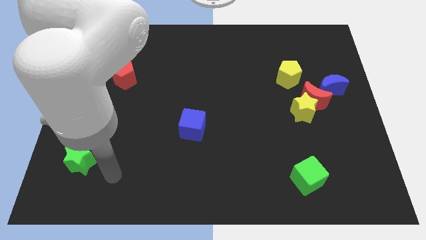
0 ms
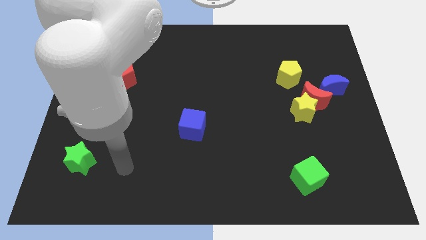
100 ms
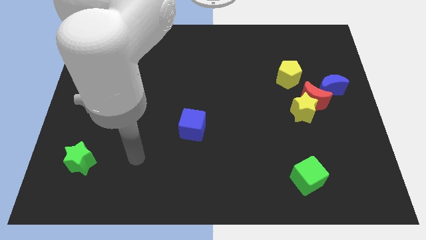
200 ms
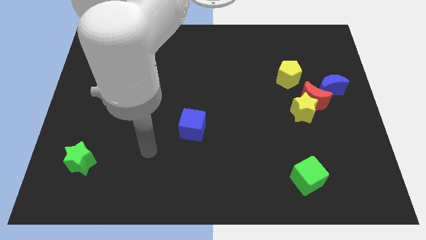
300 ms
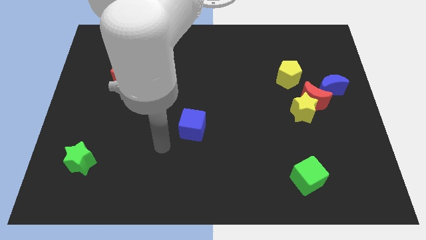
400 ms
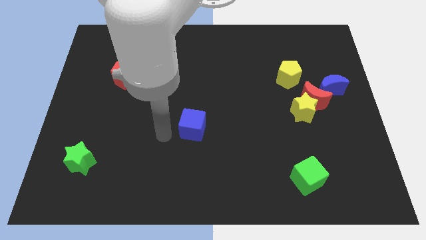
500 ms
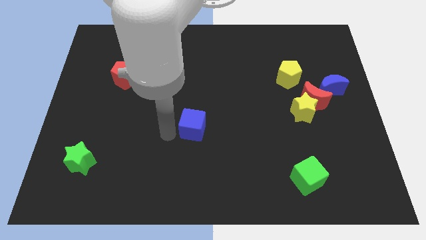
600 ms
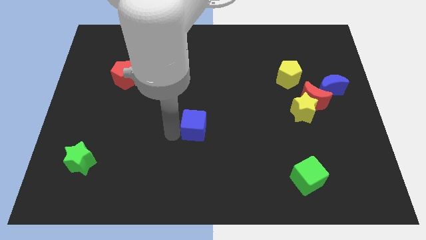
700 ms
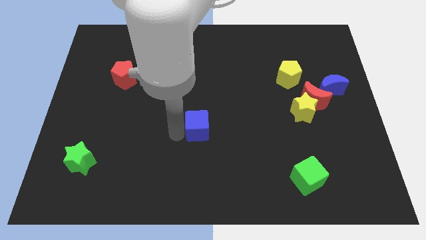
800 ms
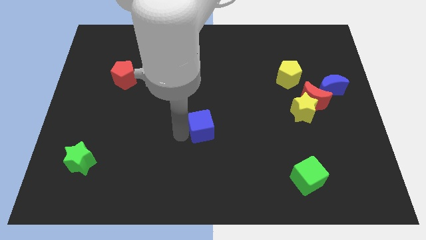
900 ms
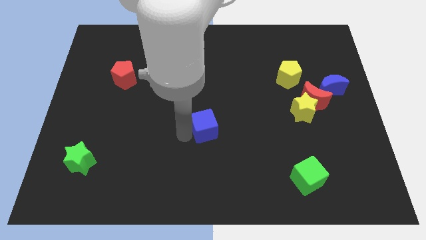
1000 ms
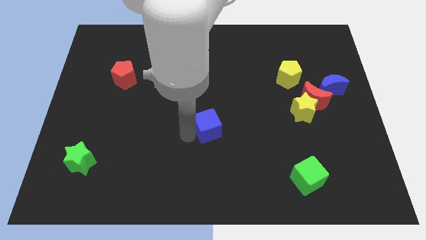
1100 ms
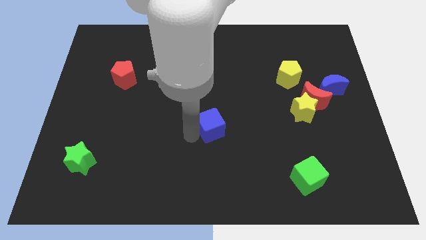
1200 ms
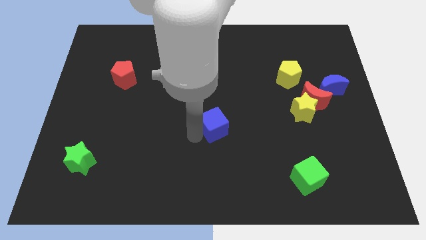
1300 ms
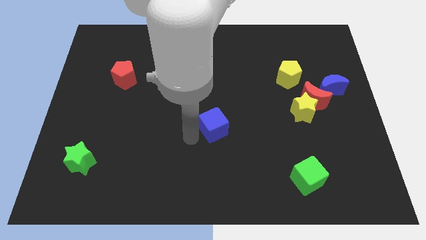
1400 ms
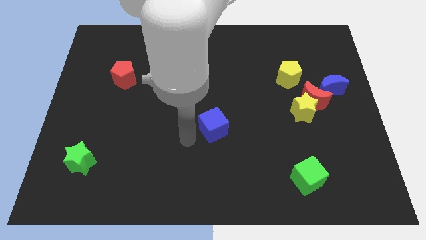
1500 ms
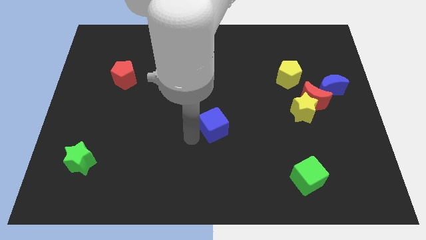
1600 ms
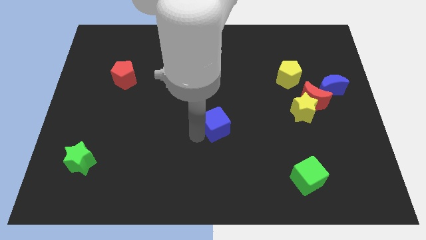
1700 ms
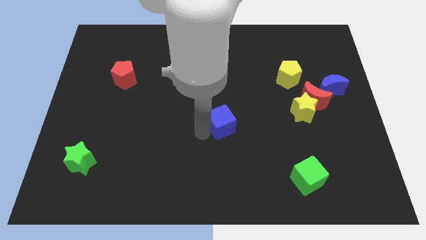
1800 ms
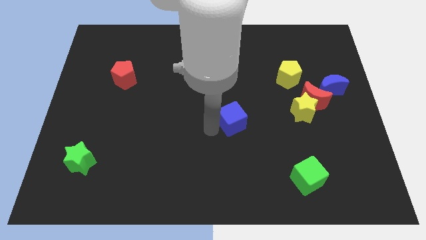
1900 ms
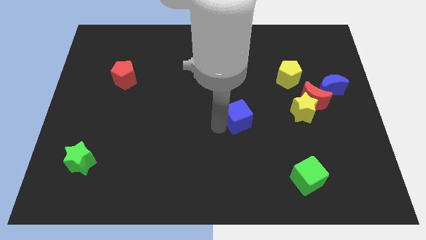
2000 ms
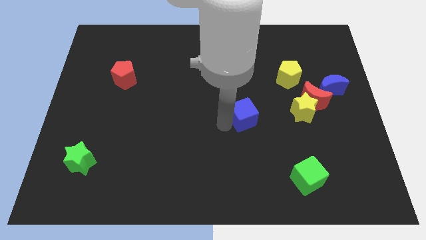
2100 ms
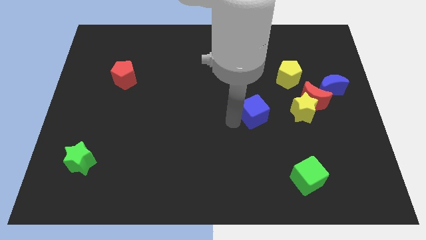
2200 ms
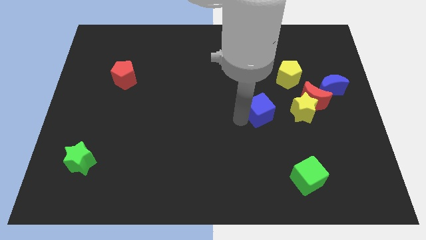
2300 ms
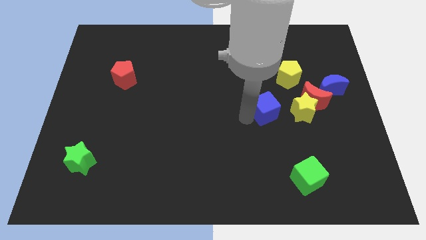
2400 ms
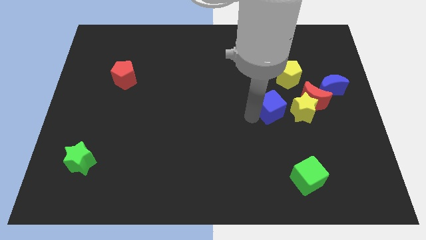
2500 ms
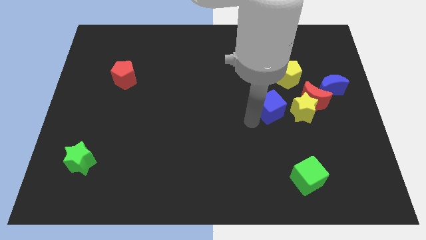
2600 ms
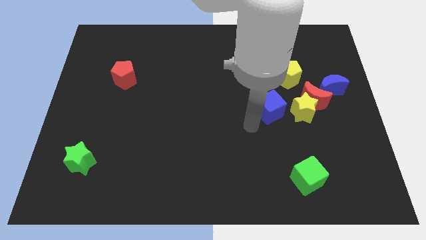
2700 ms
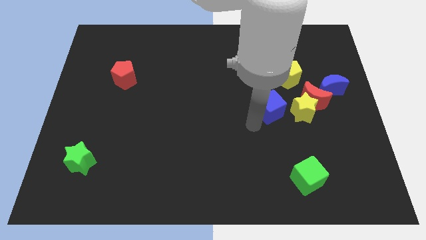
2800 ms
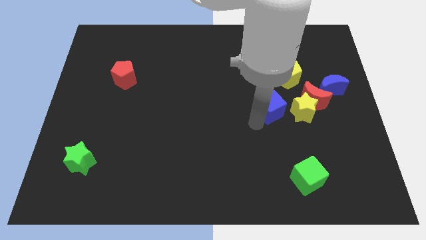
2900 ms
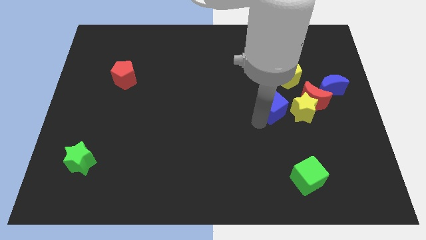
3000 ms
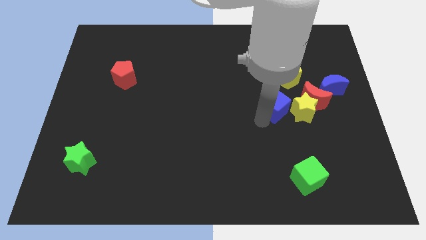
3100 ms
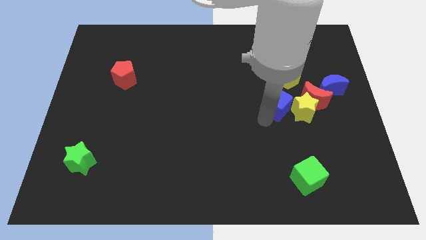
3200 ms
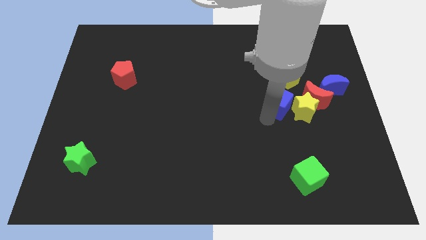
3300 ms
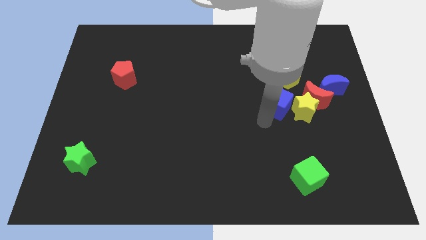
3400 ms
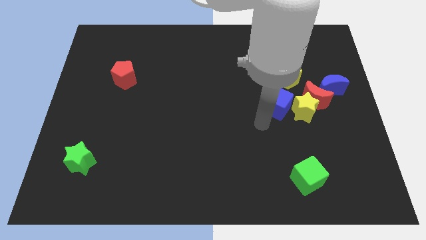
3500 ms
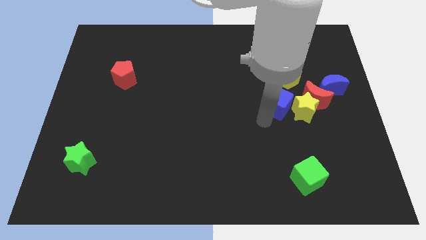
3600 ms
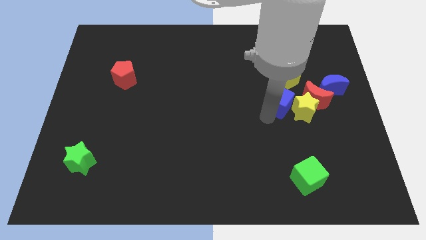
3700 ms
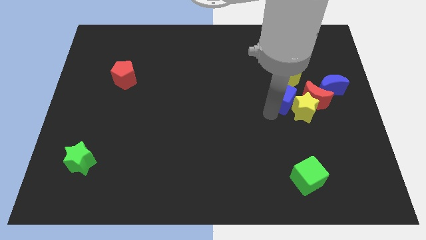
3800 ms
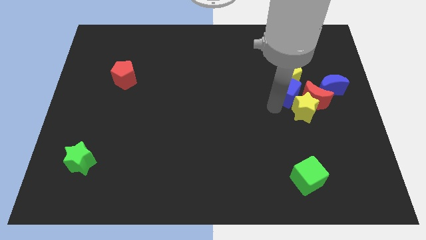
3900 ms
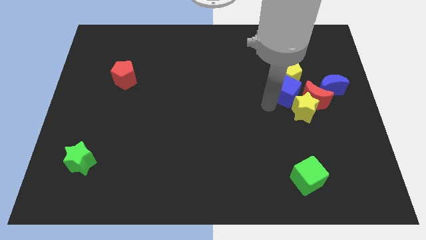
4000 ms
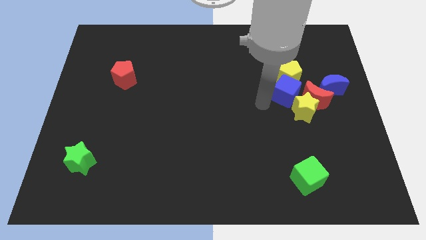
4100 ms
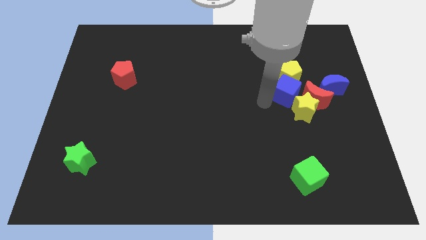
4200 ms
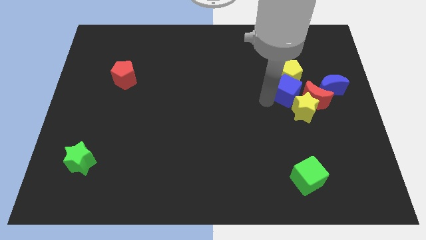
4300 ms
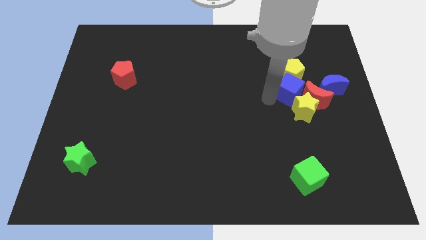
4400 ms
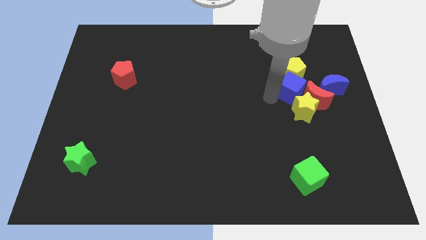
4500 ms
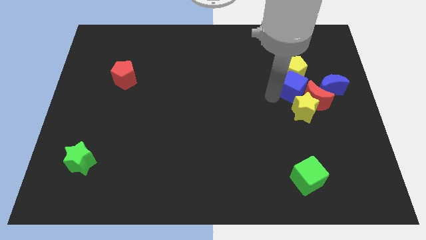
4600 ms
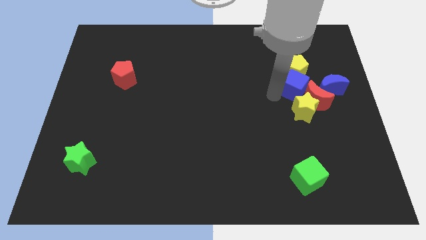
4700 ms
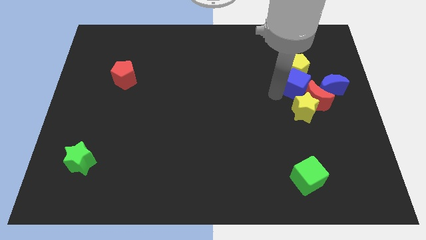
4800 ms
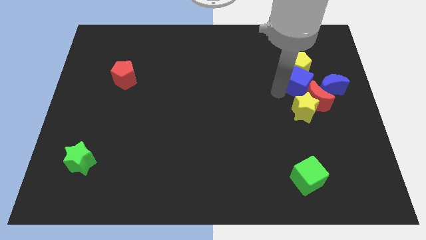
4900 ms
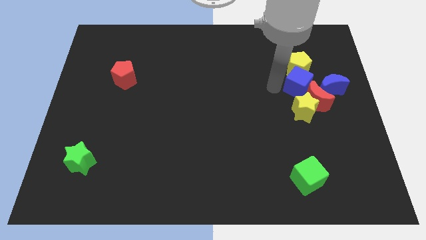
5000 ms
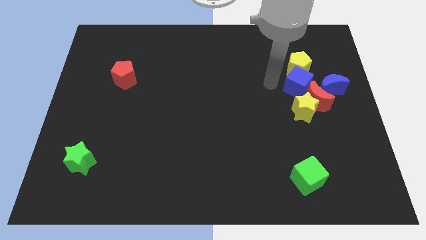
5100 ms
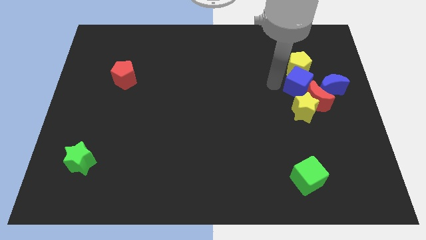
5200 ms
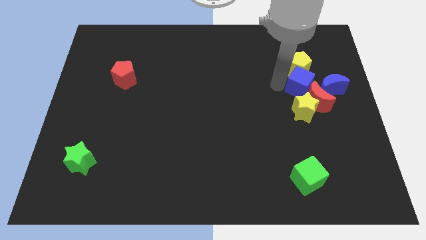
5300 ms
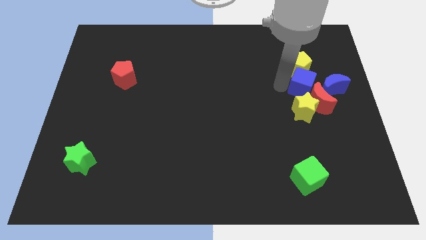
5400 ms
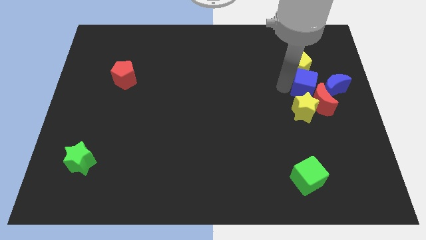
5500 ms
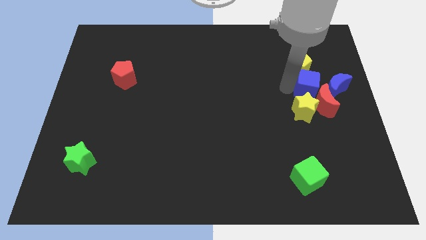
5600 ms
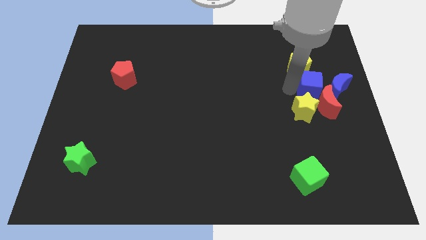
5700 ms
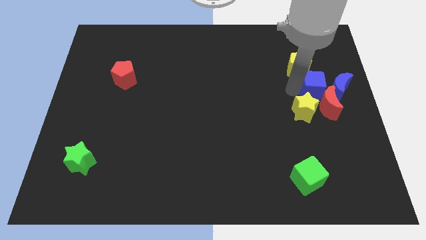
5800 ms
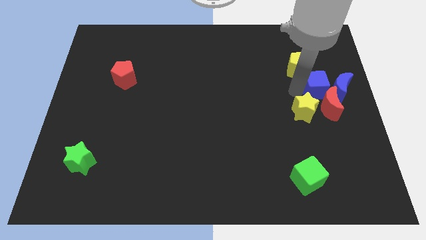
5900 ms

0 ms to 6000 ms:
slide the blue cube next to the blue moon

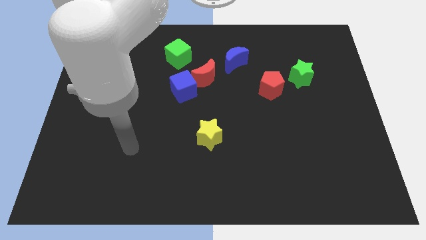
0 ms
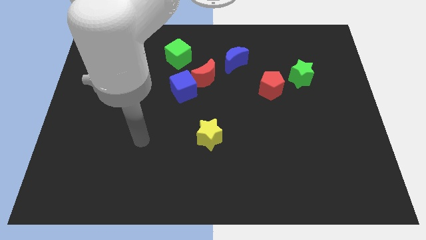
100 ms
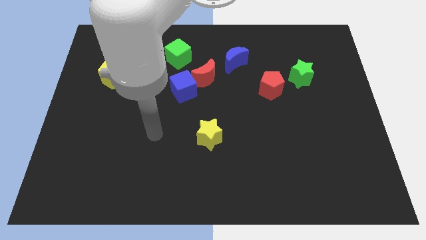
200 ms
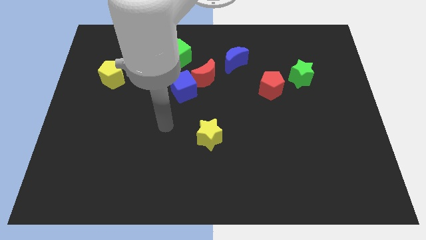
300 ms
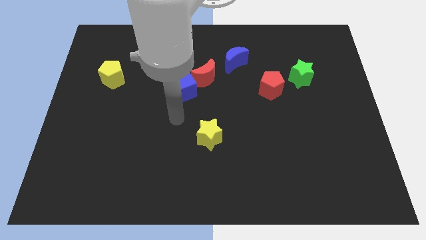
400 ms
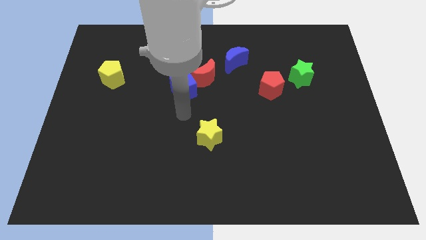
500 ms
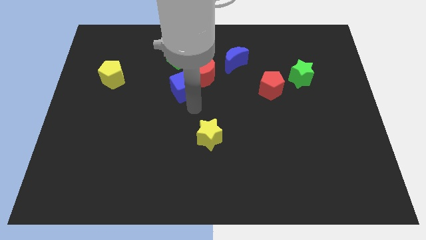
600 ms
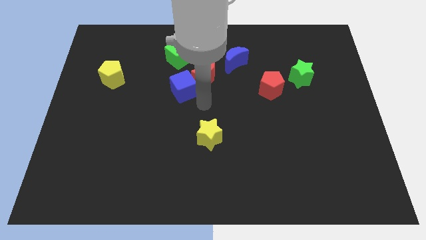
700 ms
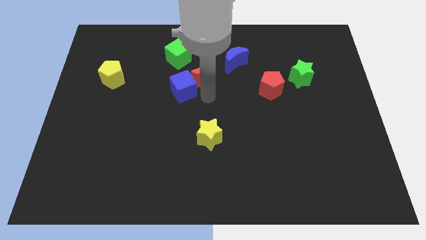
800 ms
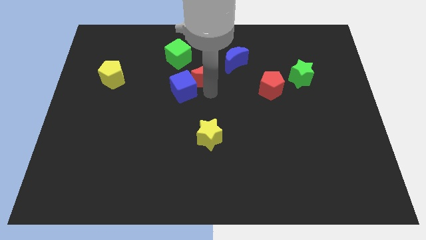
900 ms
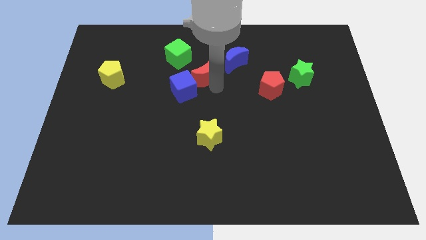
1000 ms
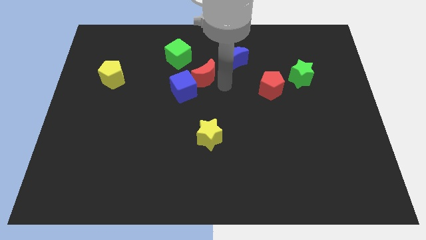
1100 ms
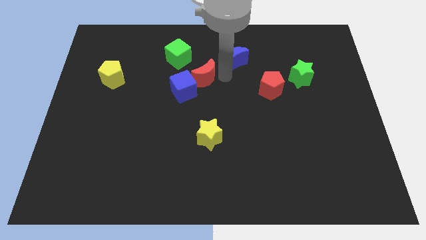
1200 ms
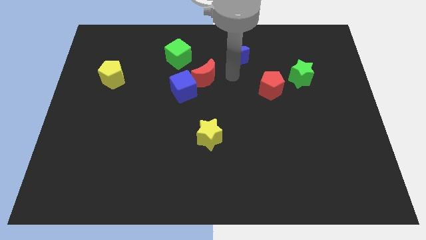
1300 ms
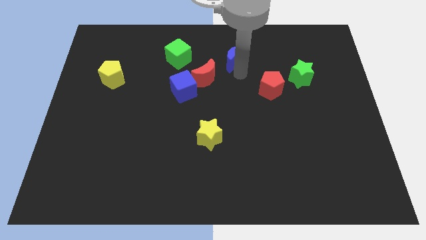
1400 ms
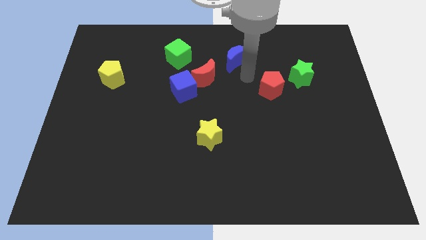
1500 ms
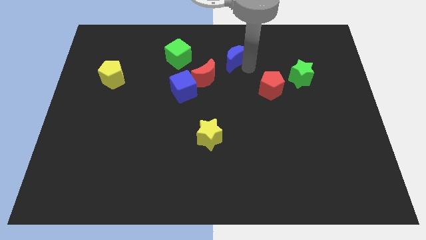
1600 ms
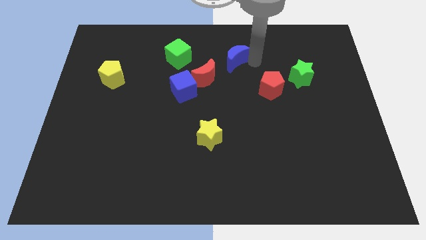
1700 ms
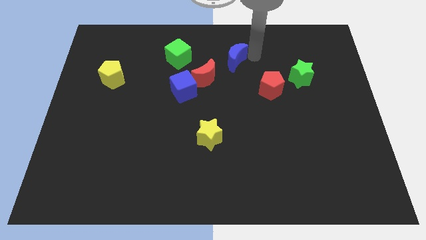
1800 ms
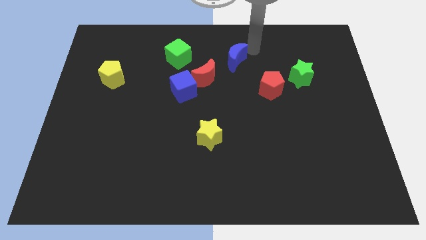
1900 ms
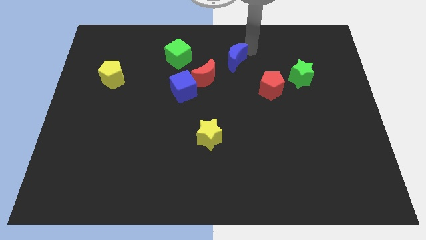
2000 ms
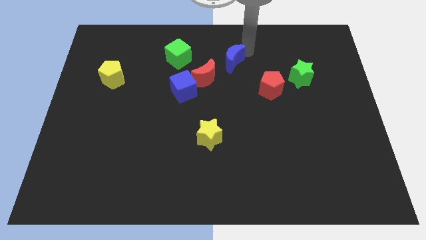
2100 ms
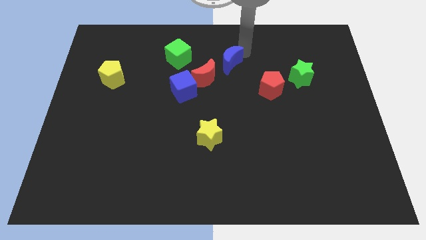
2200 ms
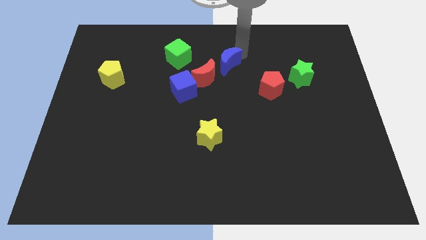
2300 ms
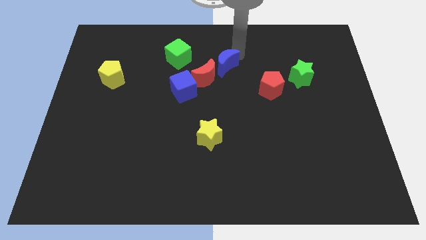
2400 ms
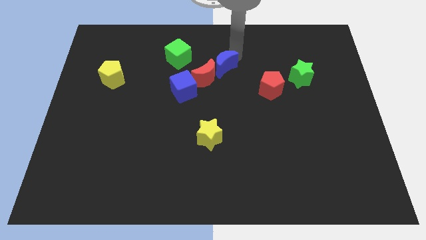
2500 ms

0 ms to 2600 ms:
push the blue moon close to the red moon
